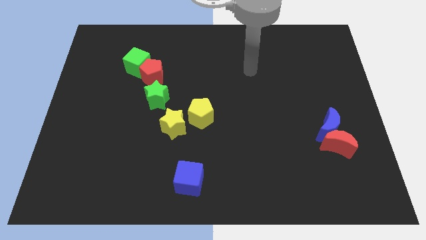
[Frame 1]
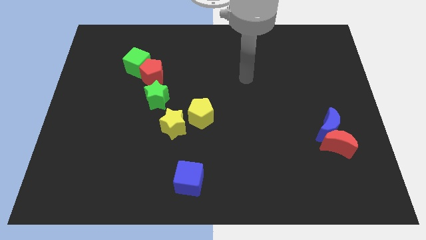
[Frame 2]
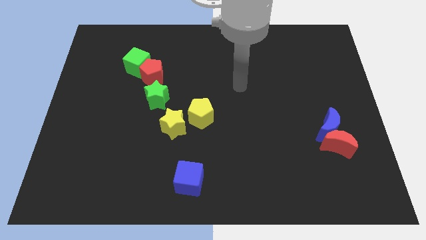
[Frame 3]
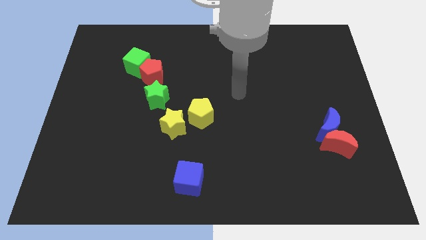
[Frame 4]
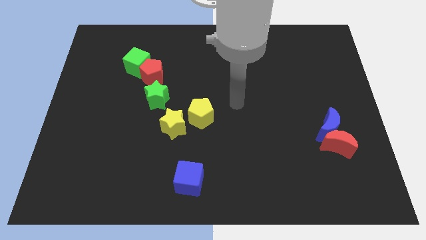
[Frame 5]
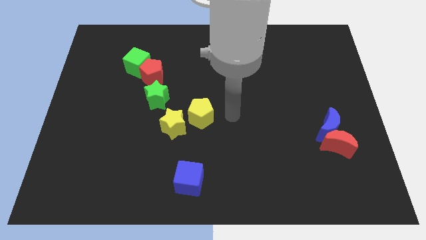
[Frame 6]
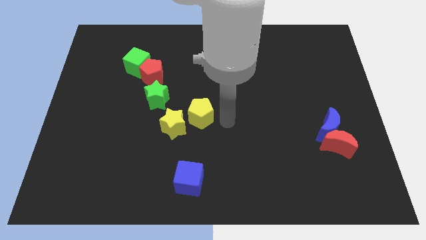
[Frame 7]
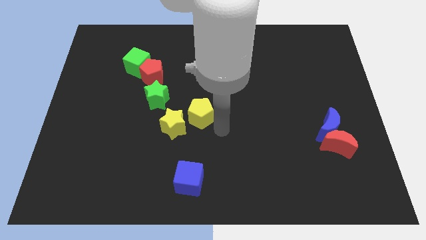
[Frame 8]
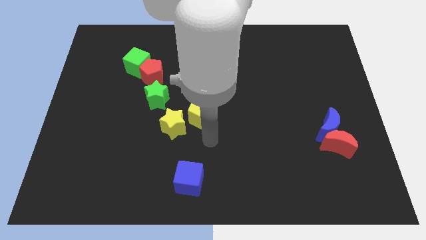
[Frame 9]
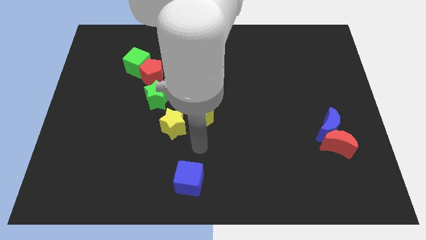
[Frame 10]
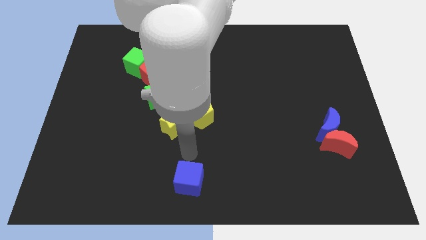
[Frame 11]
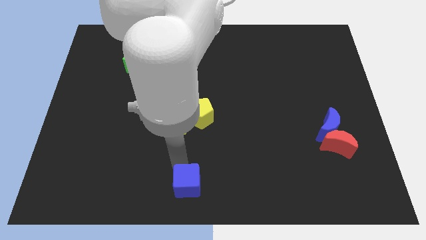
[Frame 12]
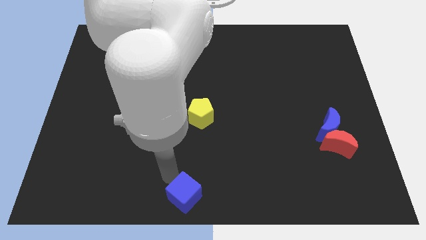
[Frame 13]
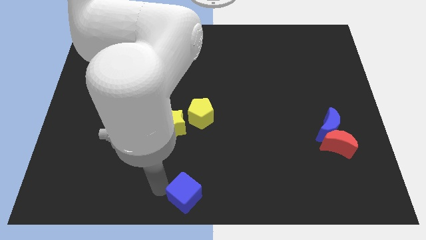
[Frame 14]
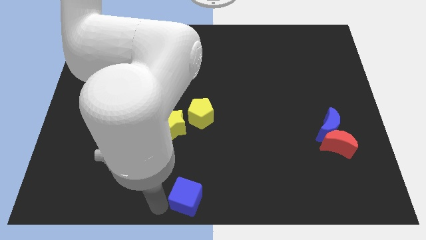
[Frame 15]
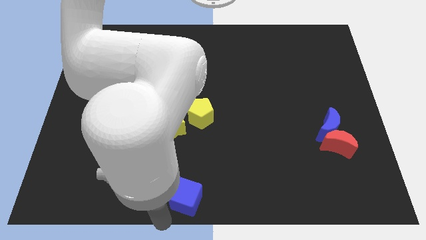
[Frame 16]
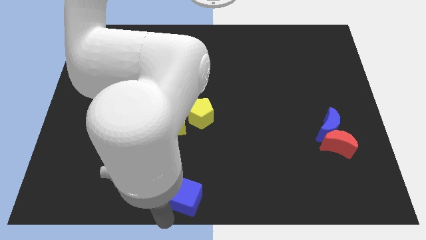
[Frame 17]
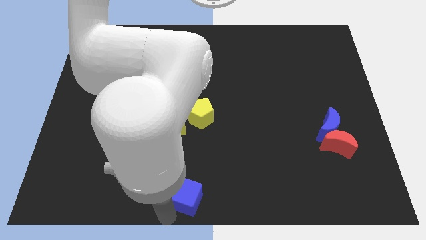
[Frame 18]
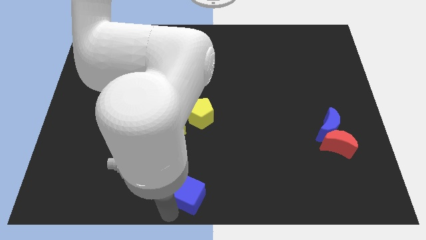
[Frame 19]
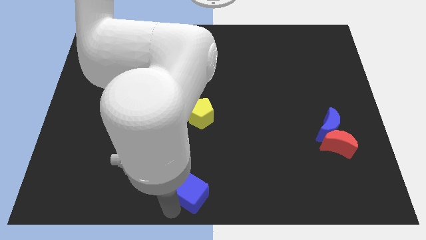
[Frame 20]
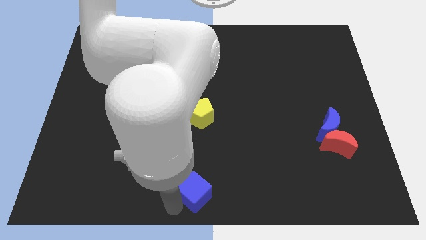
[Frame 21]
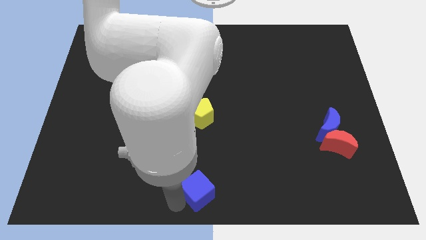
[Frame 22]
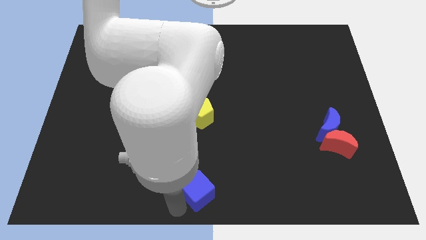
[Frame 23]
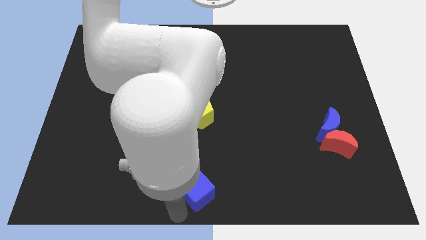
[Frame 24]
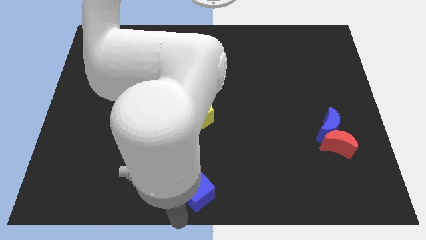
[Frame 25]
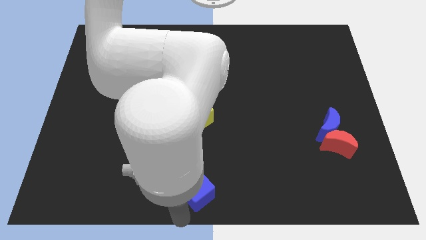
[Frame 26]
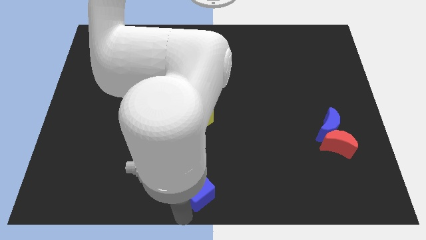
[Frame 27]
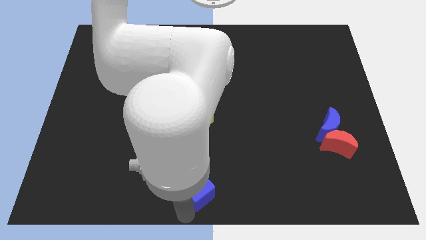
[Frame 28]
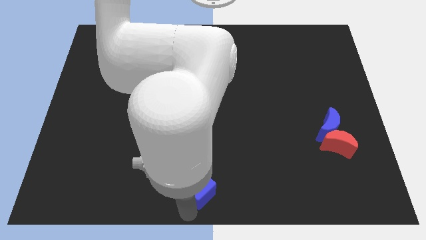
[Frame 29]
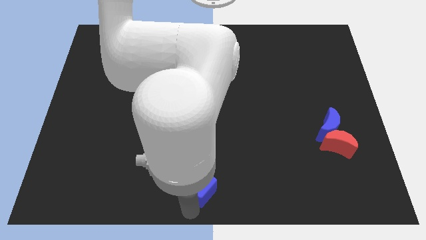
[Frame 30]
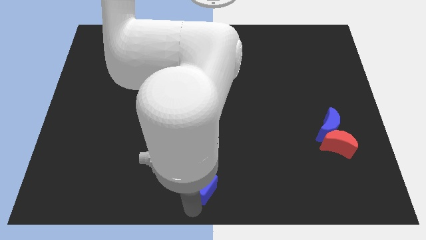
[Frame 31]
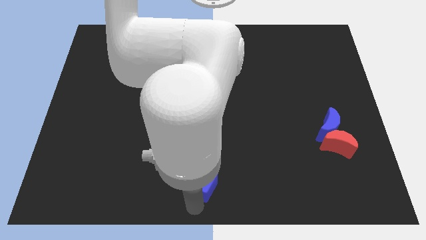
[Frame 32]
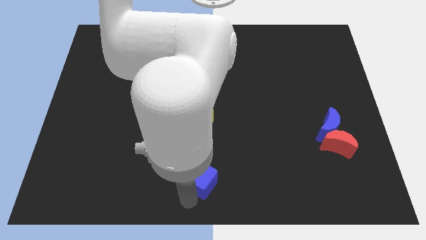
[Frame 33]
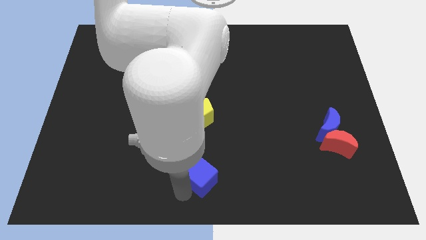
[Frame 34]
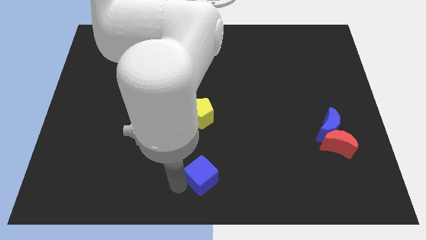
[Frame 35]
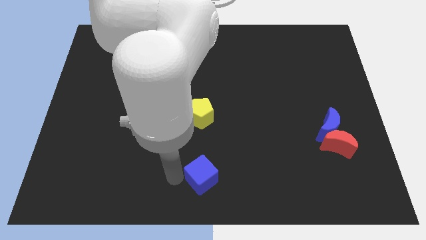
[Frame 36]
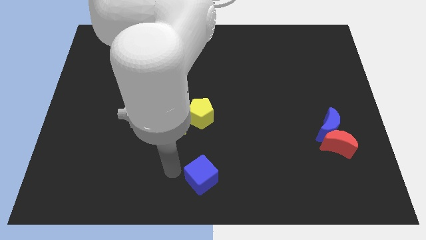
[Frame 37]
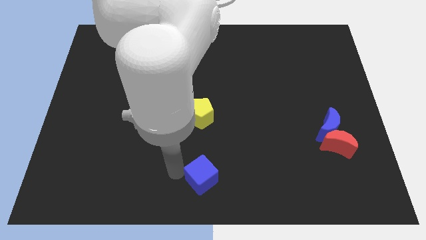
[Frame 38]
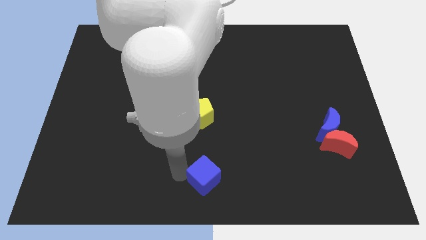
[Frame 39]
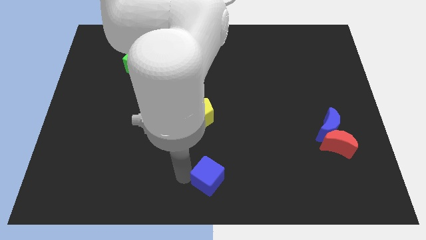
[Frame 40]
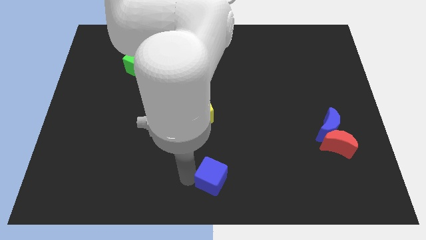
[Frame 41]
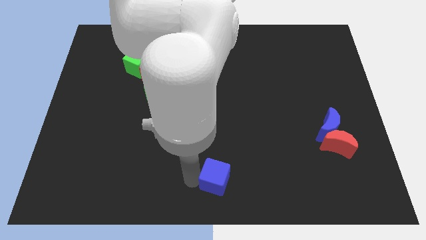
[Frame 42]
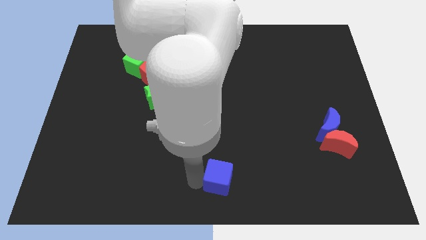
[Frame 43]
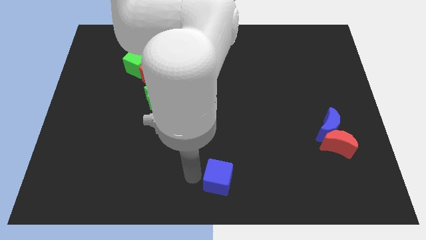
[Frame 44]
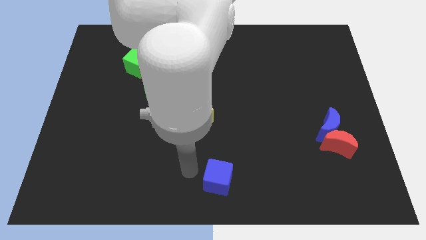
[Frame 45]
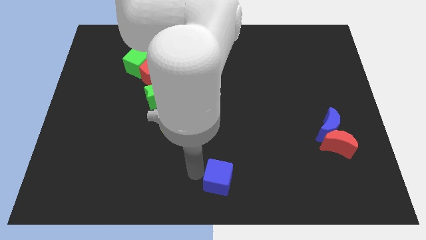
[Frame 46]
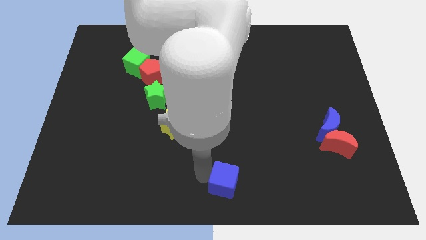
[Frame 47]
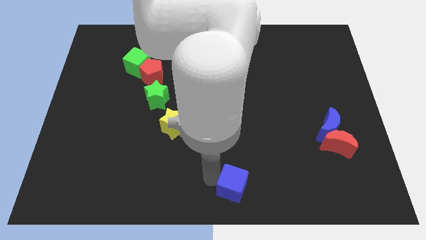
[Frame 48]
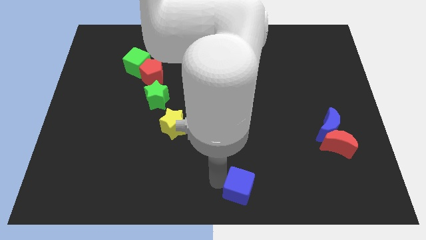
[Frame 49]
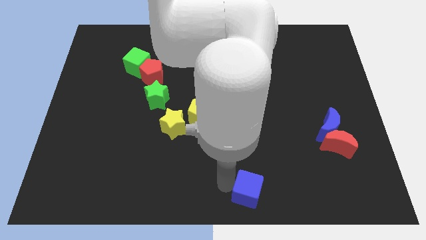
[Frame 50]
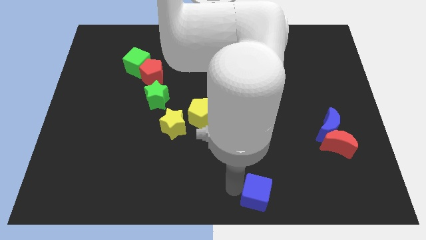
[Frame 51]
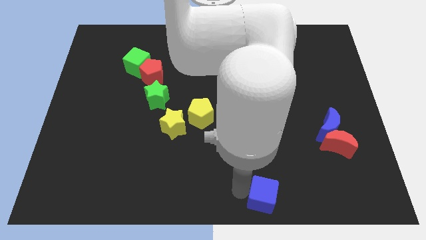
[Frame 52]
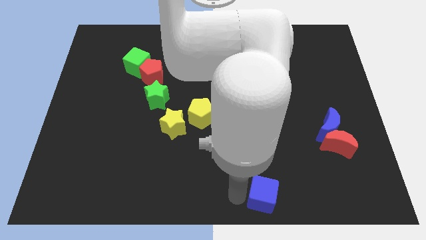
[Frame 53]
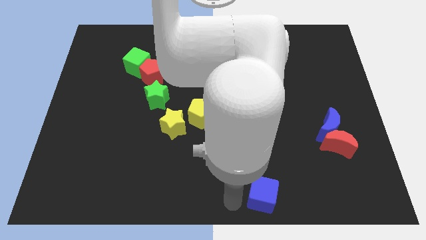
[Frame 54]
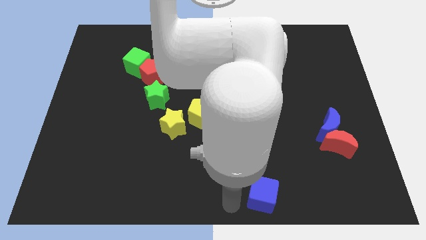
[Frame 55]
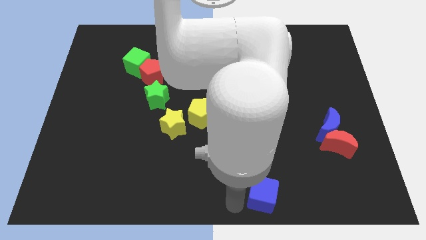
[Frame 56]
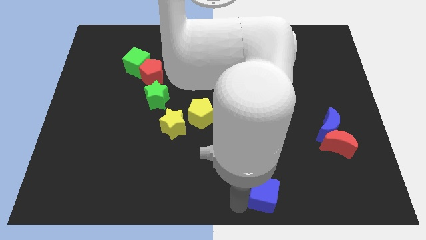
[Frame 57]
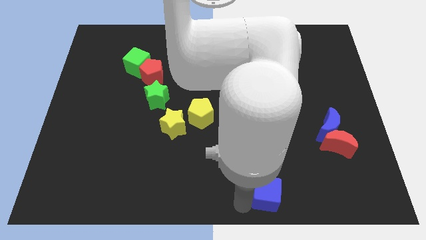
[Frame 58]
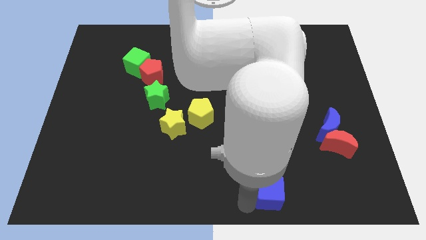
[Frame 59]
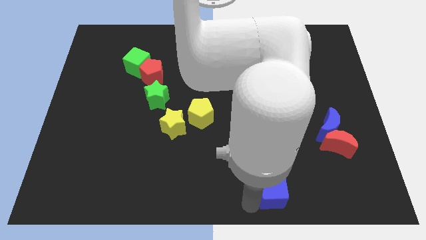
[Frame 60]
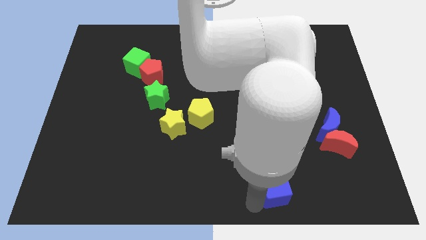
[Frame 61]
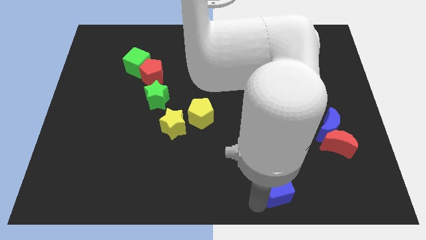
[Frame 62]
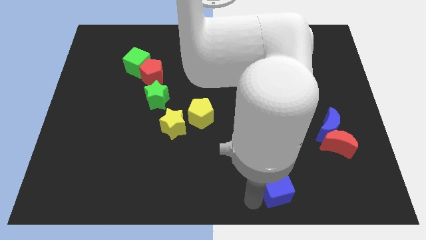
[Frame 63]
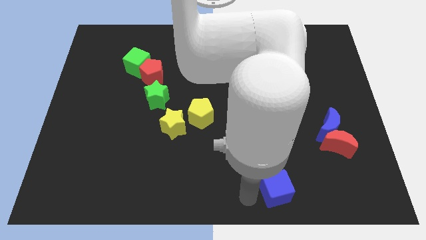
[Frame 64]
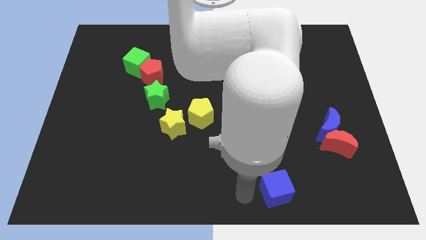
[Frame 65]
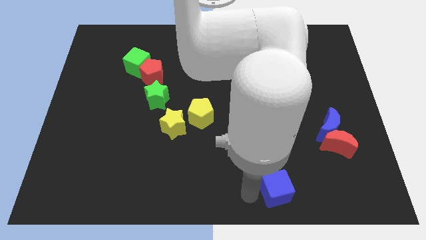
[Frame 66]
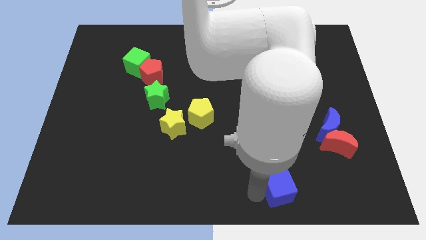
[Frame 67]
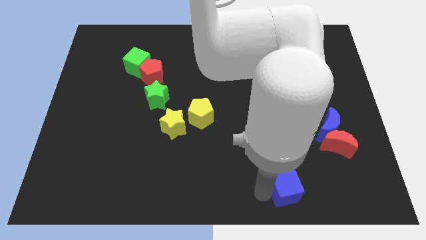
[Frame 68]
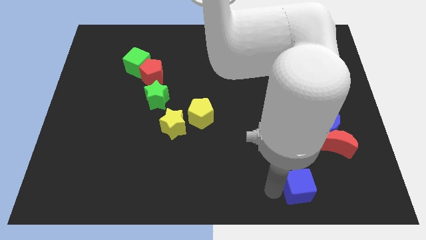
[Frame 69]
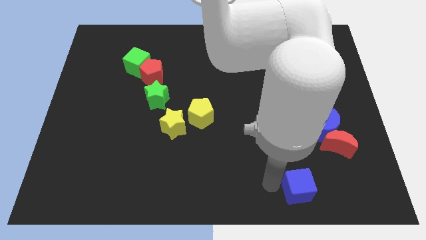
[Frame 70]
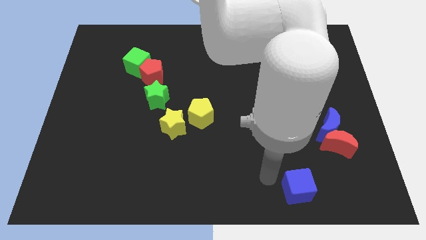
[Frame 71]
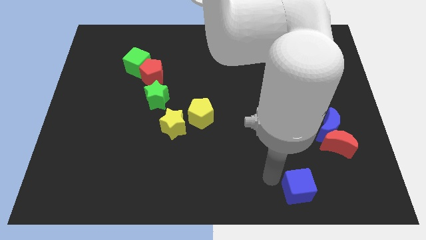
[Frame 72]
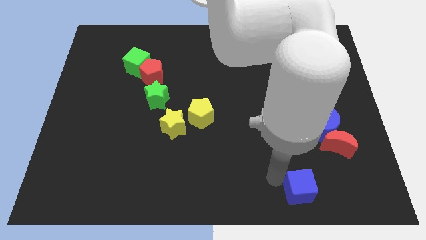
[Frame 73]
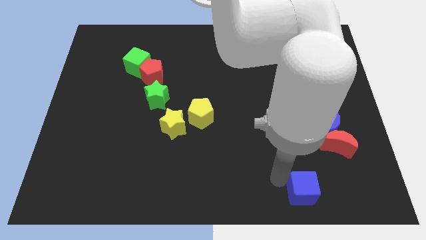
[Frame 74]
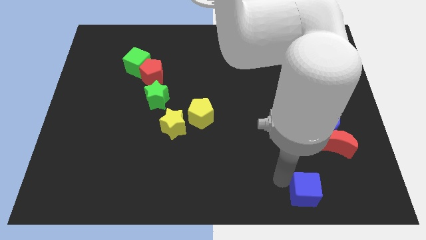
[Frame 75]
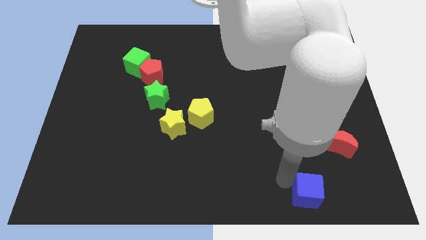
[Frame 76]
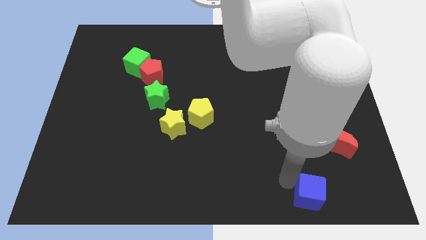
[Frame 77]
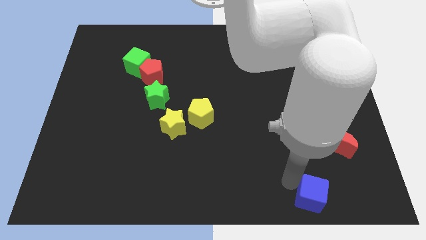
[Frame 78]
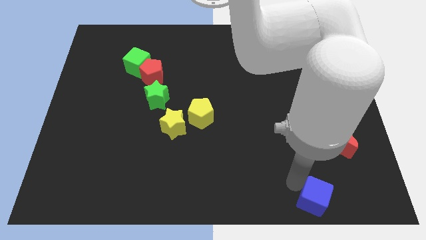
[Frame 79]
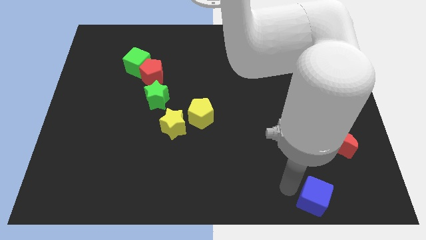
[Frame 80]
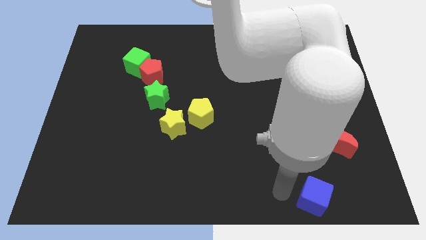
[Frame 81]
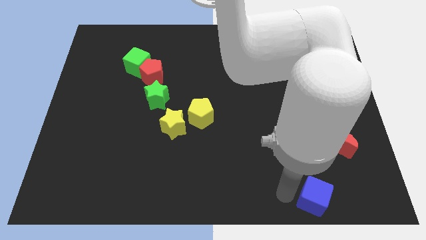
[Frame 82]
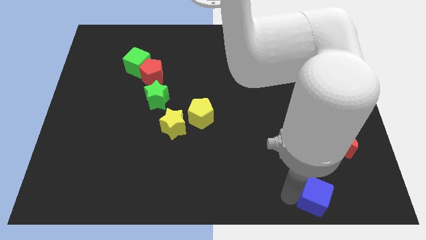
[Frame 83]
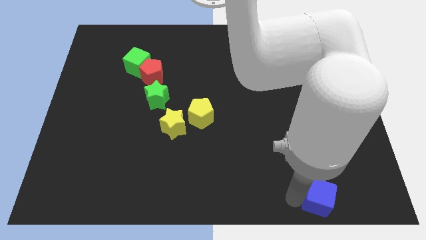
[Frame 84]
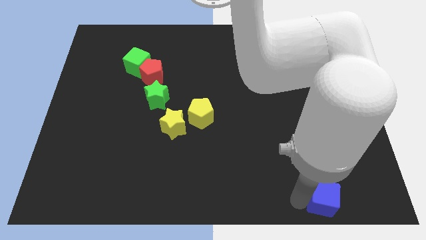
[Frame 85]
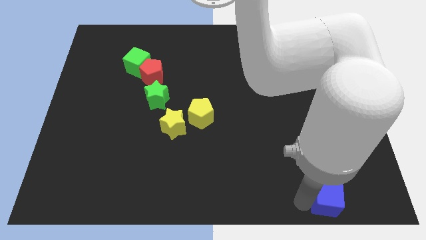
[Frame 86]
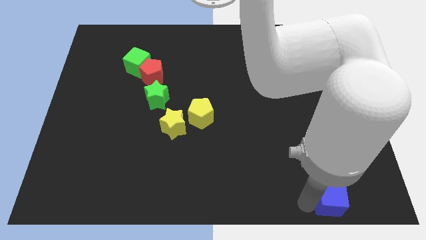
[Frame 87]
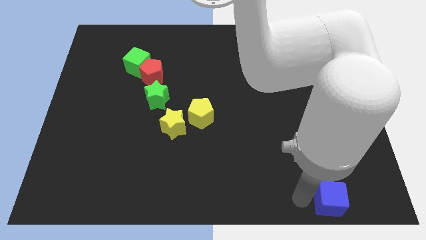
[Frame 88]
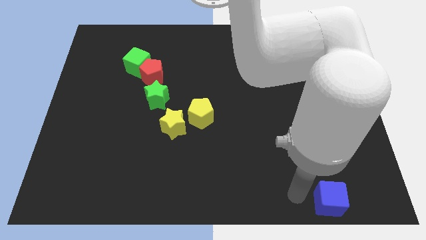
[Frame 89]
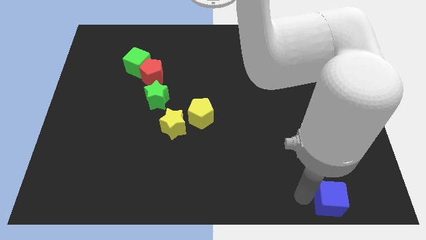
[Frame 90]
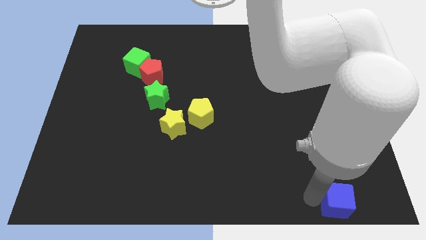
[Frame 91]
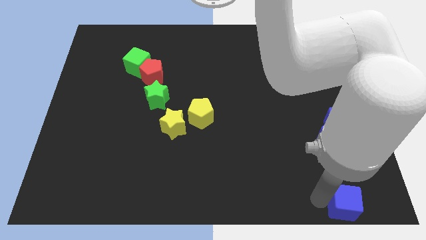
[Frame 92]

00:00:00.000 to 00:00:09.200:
put the blue cube to the bottom right of the board
